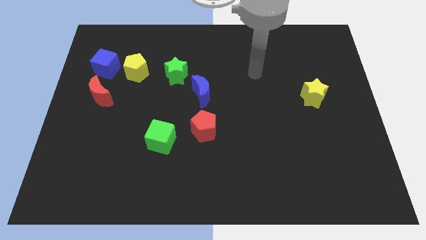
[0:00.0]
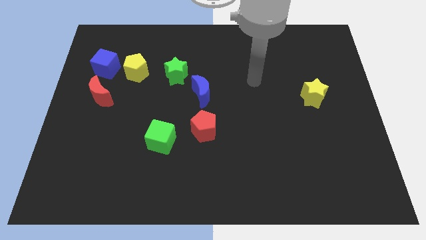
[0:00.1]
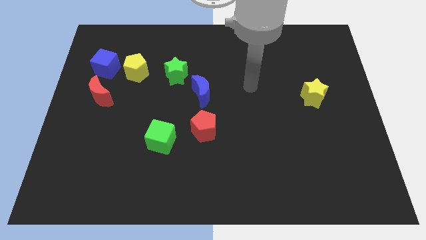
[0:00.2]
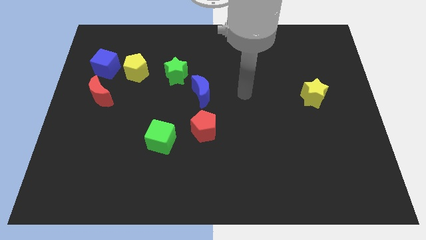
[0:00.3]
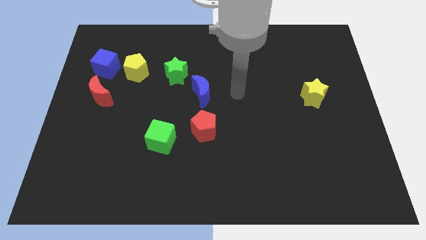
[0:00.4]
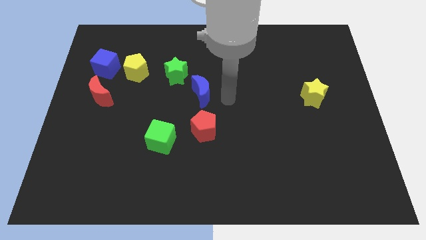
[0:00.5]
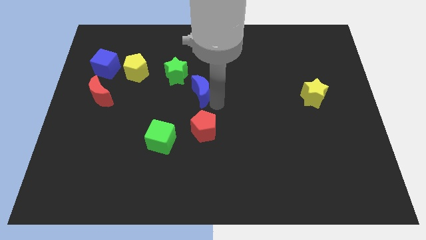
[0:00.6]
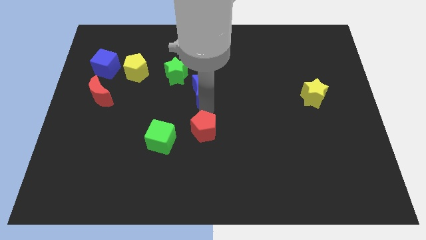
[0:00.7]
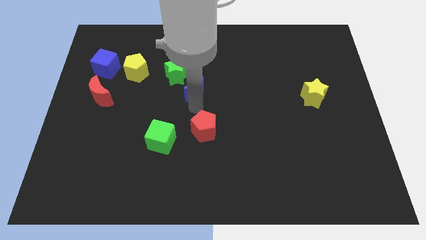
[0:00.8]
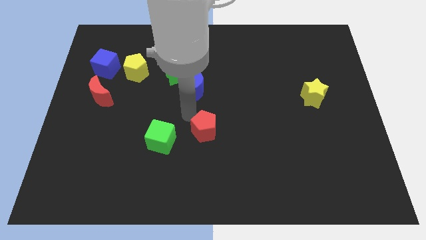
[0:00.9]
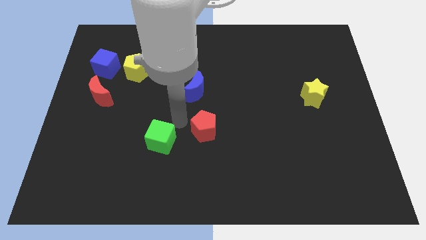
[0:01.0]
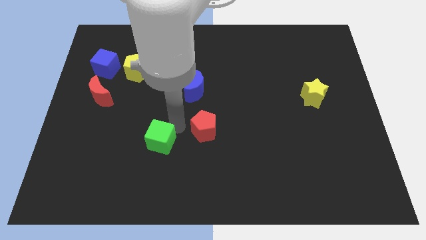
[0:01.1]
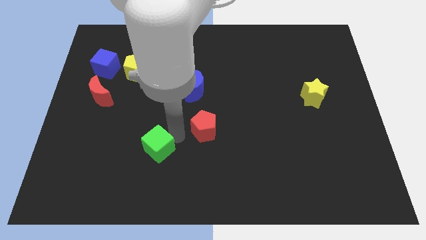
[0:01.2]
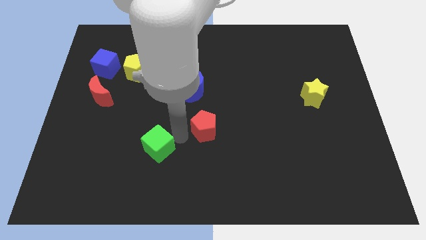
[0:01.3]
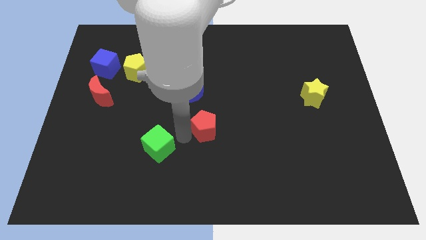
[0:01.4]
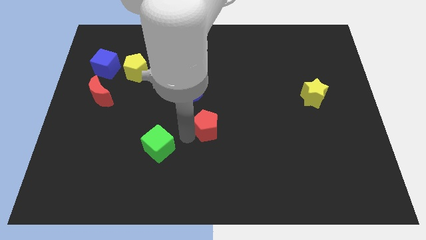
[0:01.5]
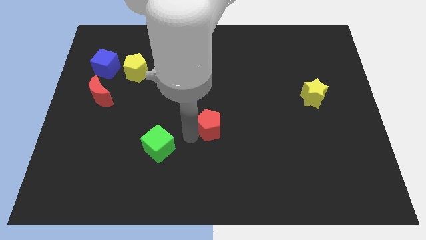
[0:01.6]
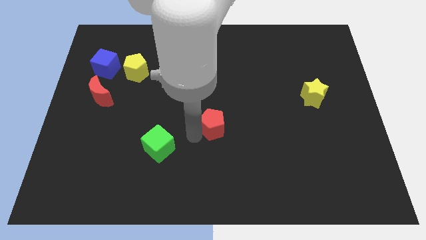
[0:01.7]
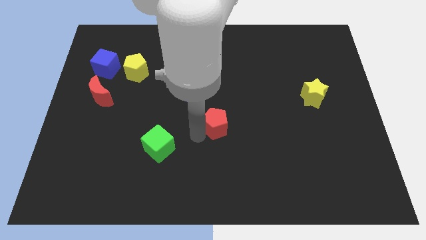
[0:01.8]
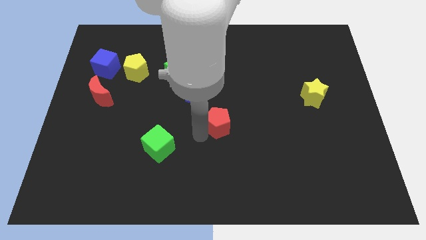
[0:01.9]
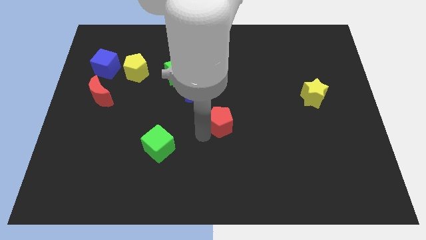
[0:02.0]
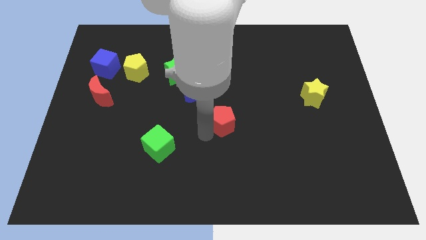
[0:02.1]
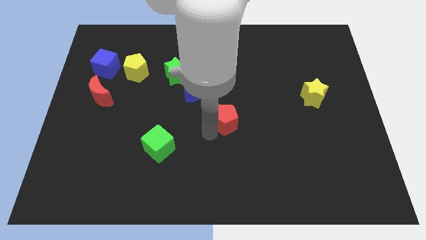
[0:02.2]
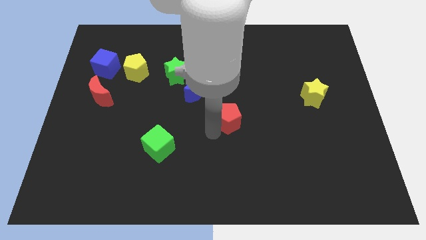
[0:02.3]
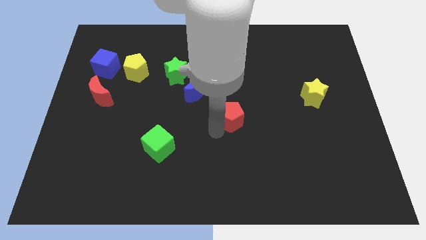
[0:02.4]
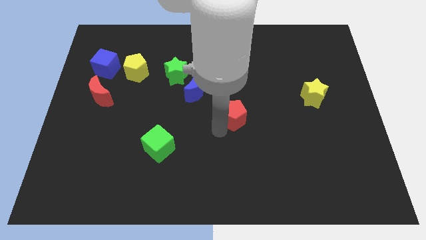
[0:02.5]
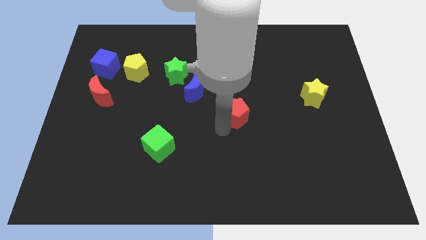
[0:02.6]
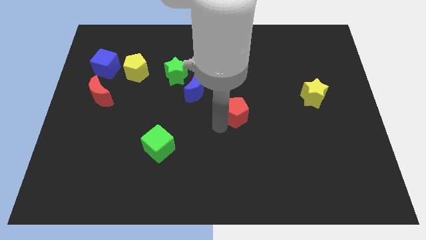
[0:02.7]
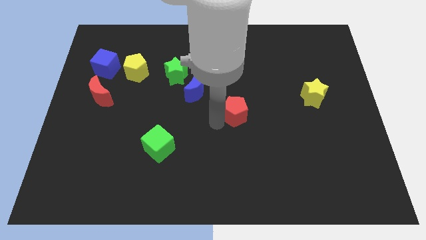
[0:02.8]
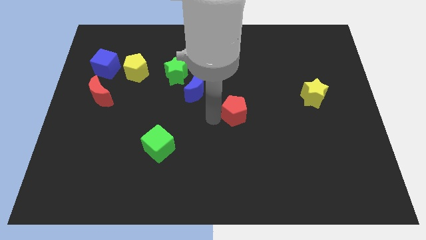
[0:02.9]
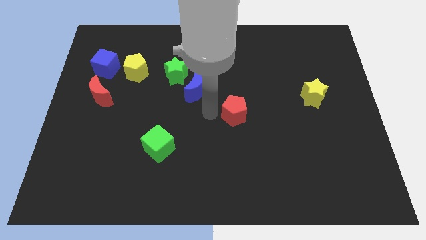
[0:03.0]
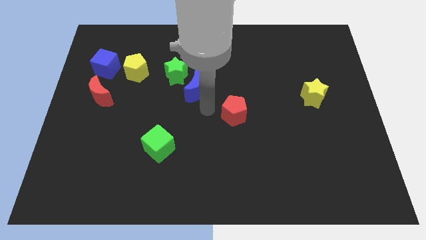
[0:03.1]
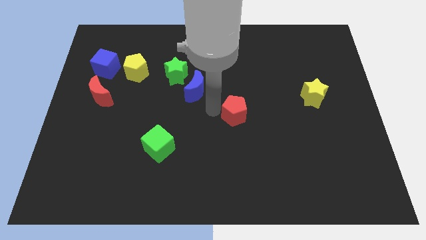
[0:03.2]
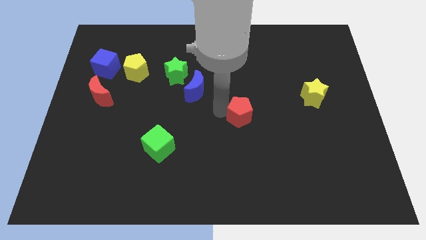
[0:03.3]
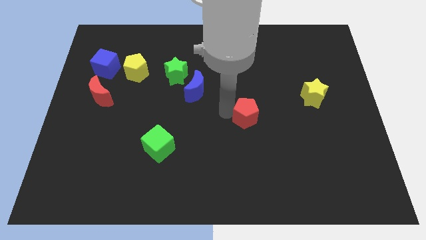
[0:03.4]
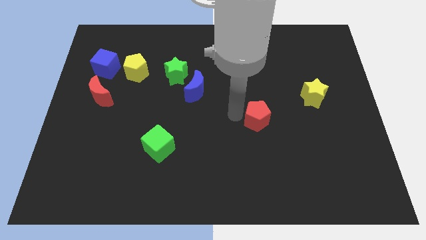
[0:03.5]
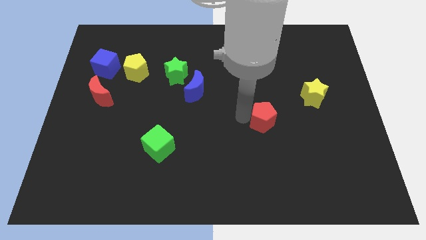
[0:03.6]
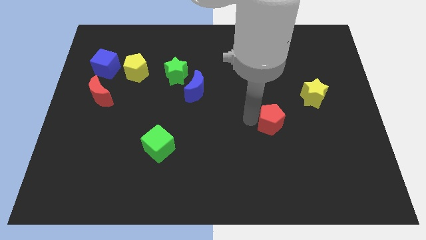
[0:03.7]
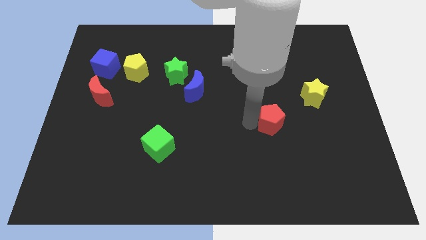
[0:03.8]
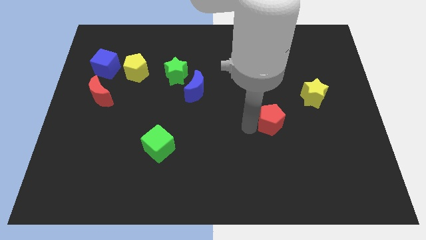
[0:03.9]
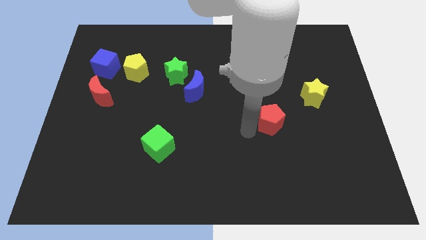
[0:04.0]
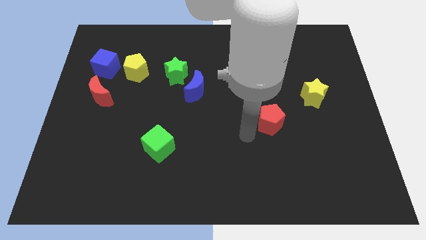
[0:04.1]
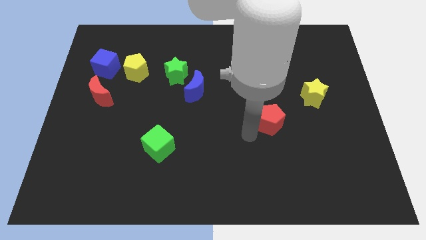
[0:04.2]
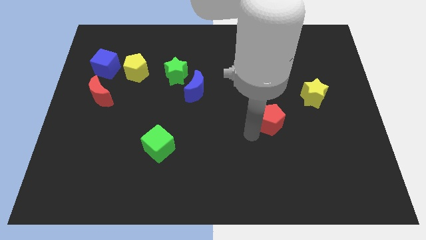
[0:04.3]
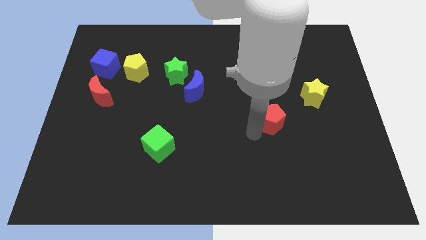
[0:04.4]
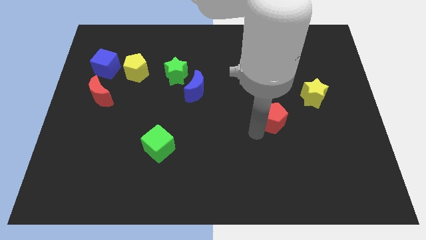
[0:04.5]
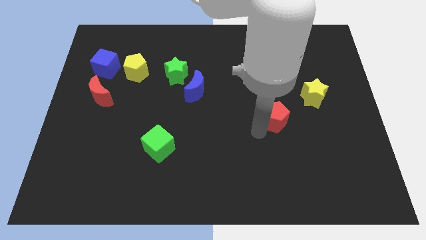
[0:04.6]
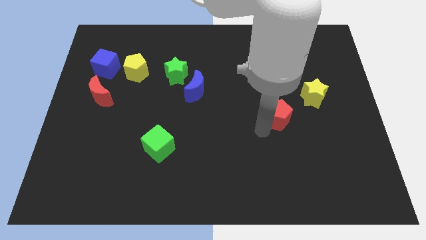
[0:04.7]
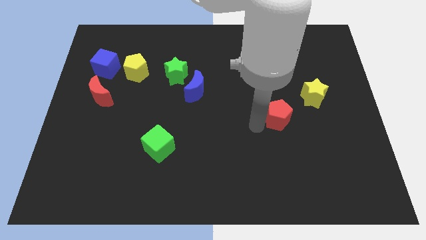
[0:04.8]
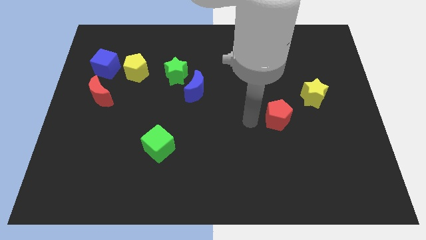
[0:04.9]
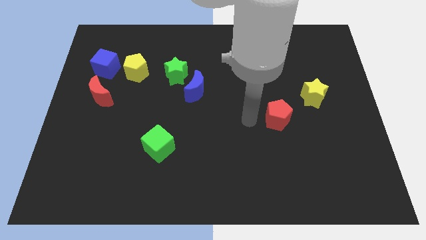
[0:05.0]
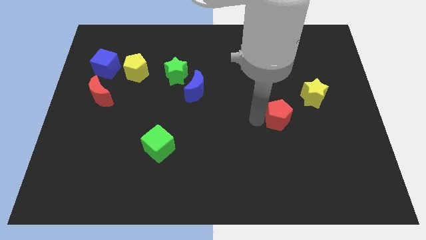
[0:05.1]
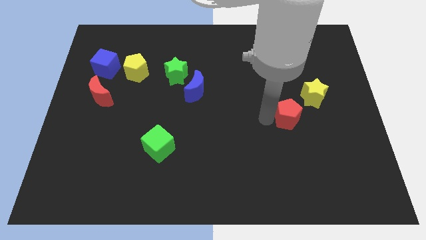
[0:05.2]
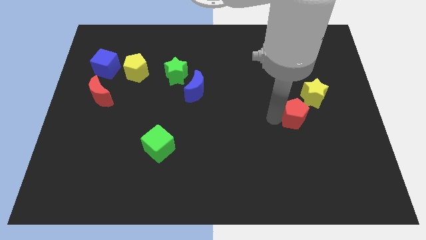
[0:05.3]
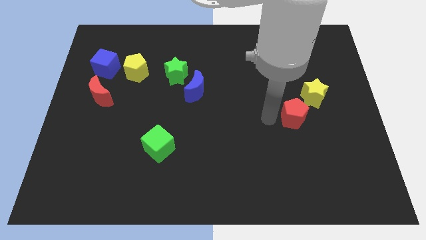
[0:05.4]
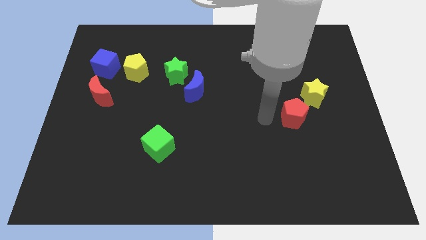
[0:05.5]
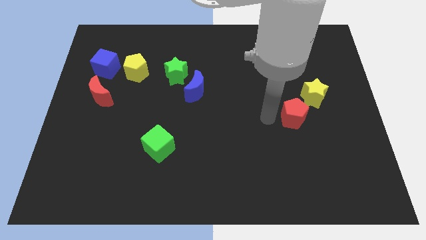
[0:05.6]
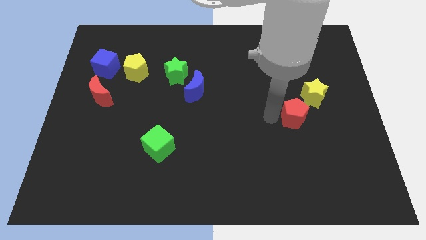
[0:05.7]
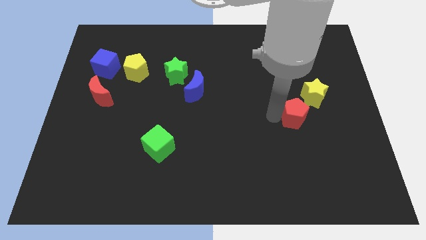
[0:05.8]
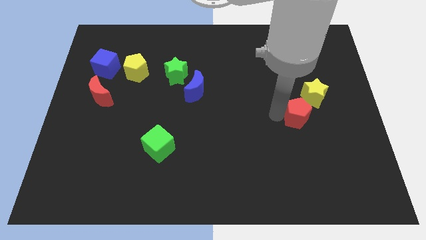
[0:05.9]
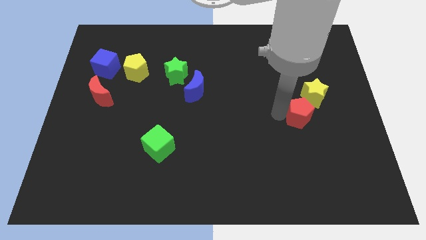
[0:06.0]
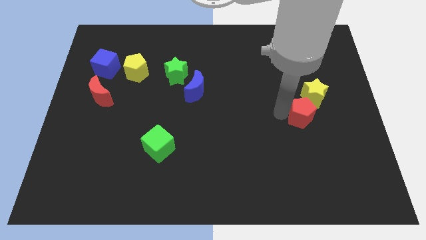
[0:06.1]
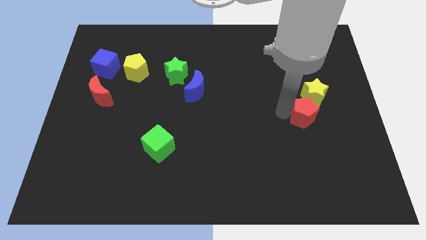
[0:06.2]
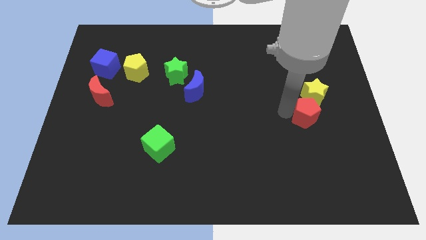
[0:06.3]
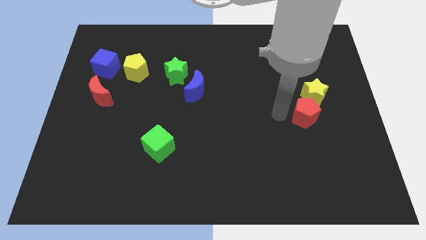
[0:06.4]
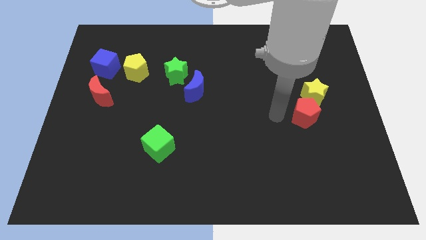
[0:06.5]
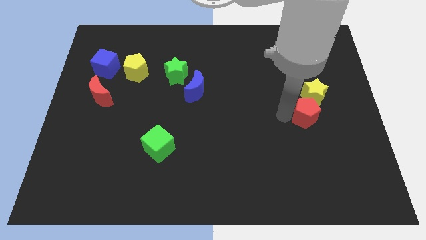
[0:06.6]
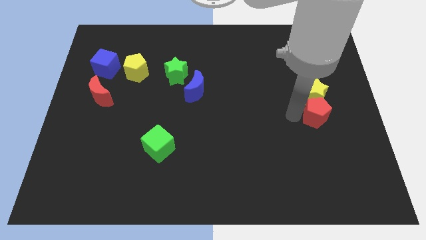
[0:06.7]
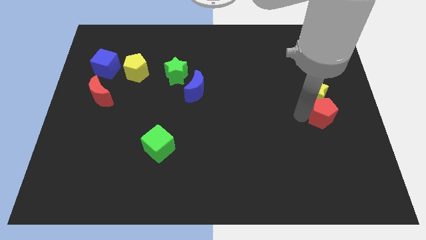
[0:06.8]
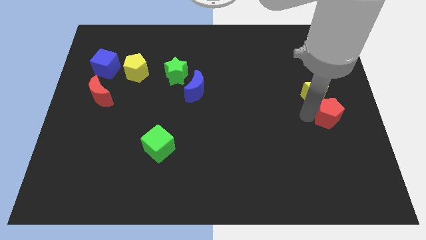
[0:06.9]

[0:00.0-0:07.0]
move the red pentagon to the center right
